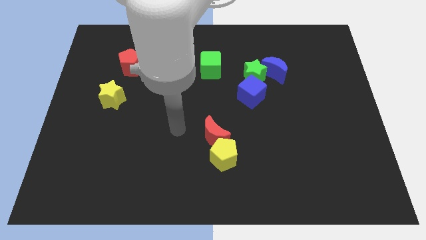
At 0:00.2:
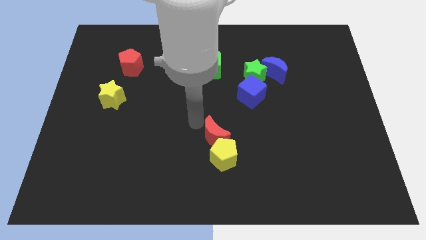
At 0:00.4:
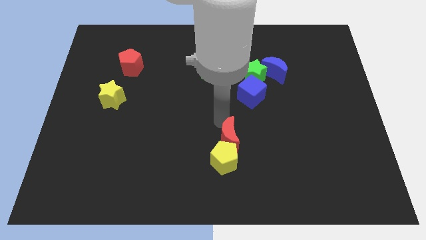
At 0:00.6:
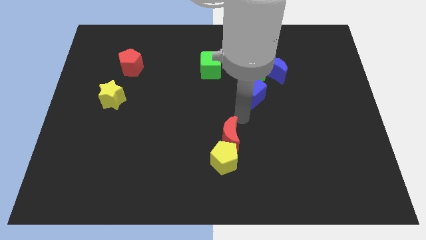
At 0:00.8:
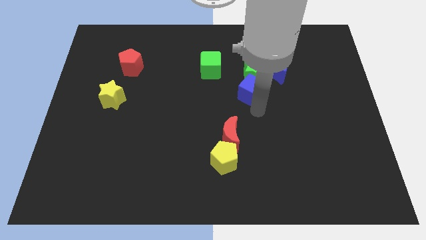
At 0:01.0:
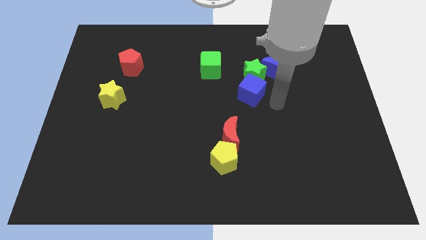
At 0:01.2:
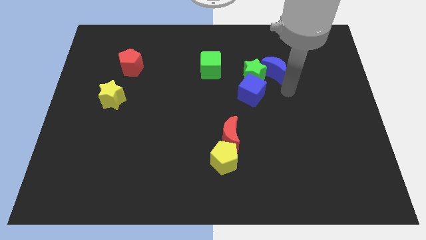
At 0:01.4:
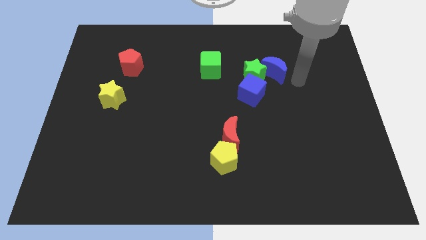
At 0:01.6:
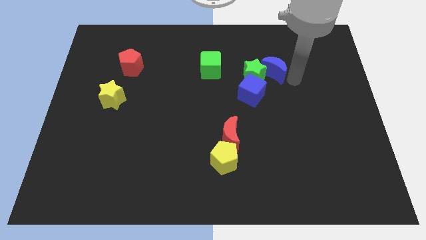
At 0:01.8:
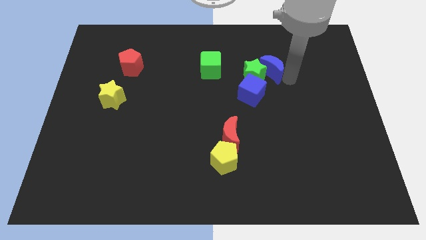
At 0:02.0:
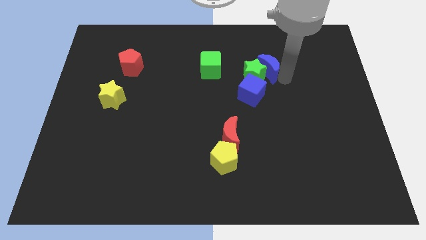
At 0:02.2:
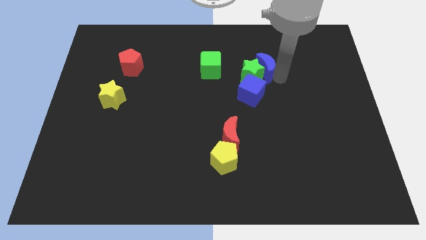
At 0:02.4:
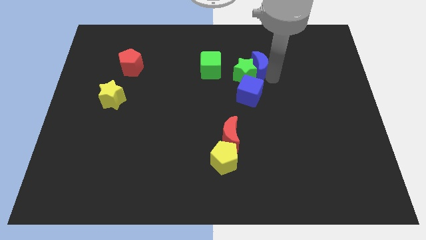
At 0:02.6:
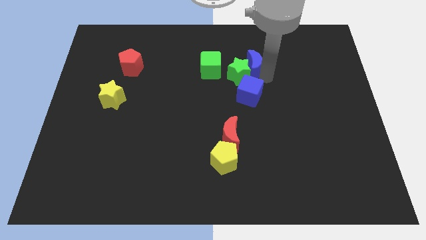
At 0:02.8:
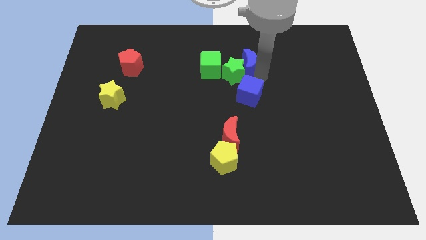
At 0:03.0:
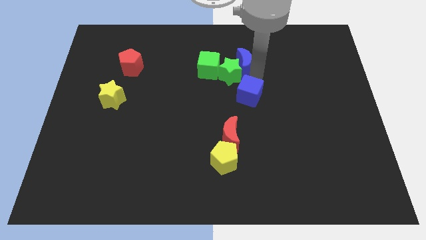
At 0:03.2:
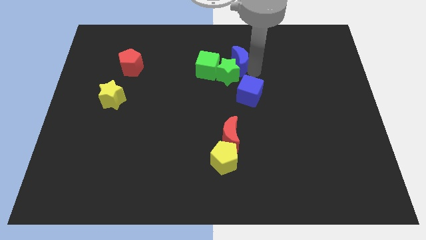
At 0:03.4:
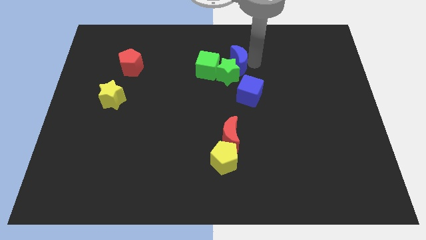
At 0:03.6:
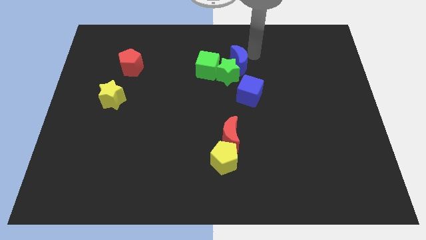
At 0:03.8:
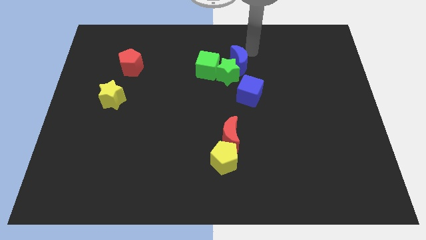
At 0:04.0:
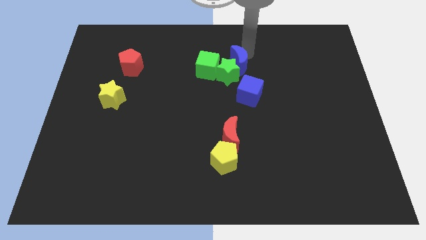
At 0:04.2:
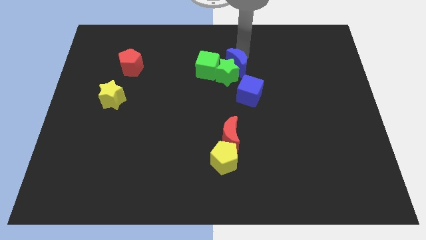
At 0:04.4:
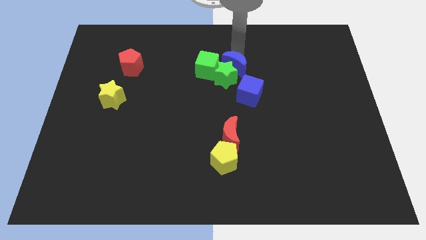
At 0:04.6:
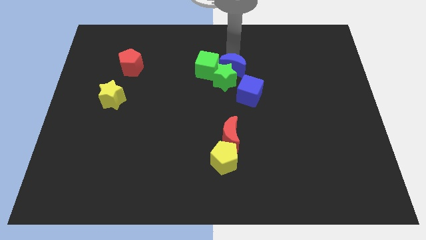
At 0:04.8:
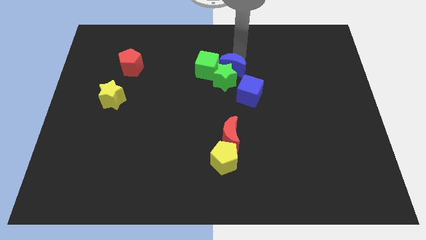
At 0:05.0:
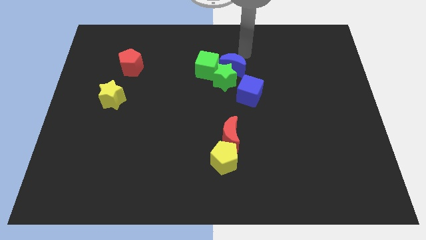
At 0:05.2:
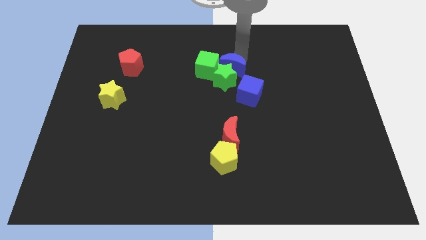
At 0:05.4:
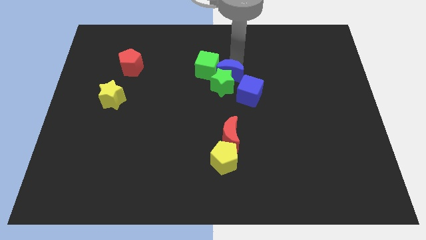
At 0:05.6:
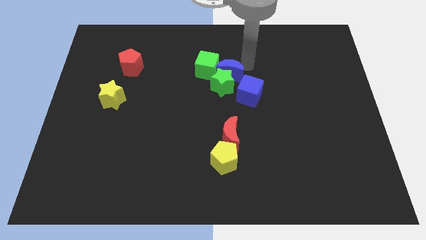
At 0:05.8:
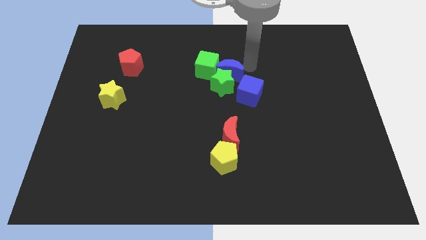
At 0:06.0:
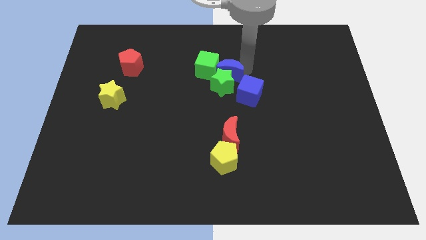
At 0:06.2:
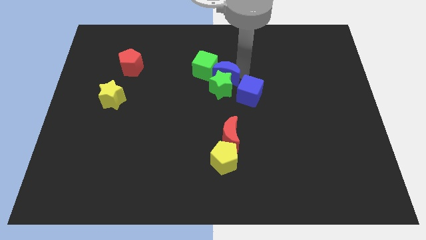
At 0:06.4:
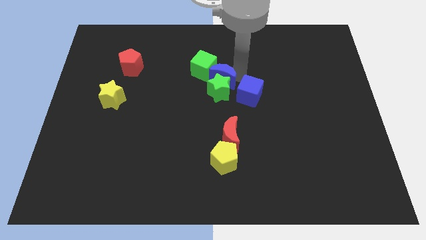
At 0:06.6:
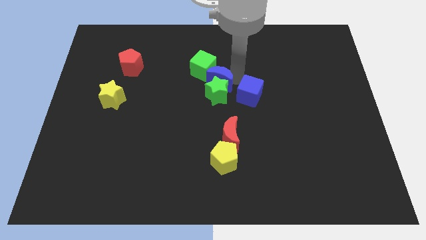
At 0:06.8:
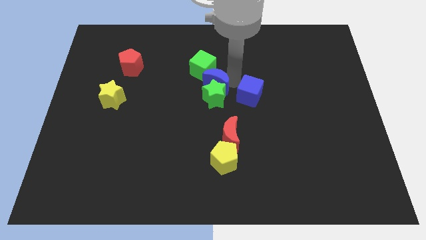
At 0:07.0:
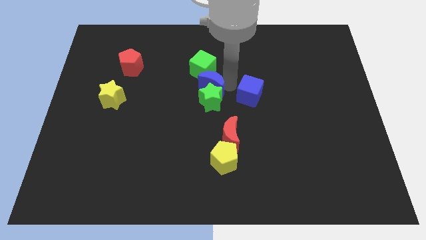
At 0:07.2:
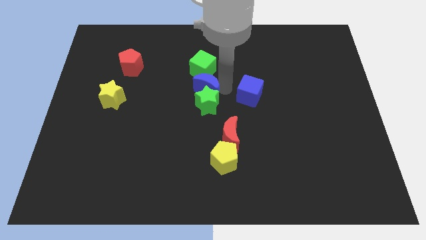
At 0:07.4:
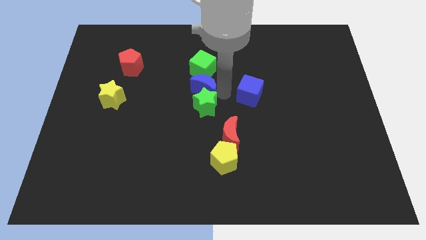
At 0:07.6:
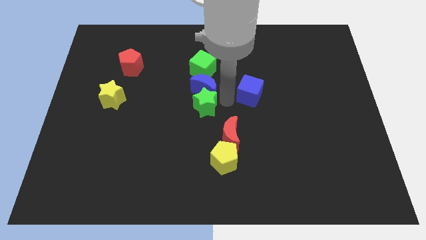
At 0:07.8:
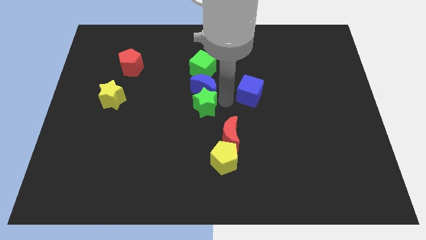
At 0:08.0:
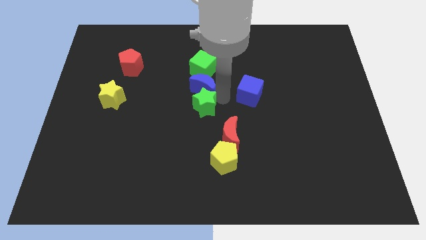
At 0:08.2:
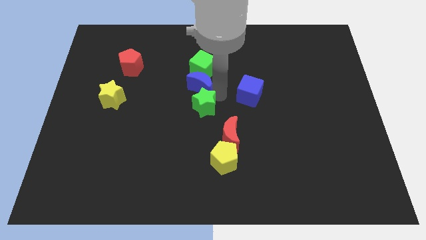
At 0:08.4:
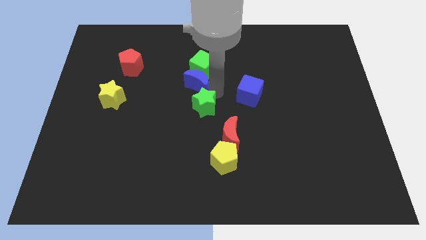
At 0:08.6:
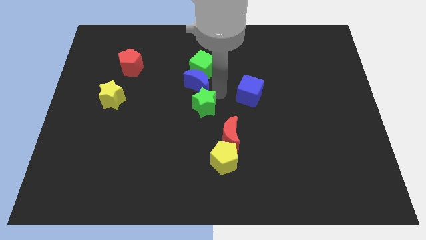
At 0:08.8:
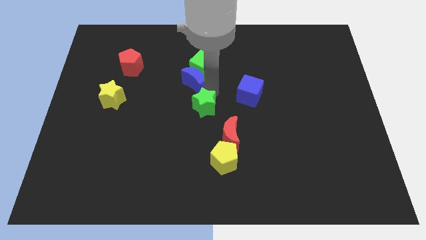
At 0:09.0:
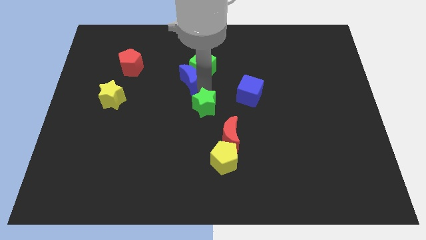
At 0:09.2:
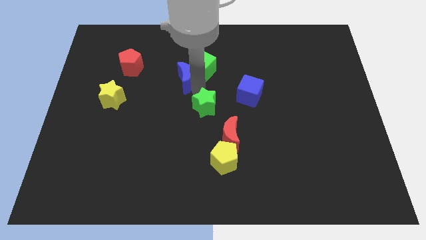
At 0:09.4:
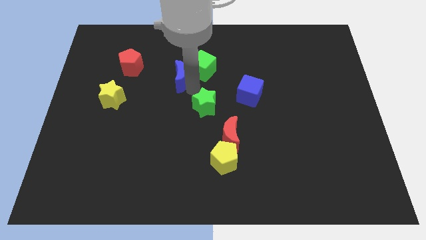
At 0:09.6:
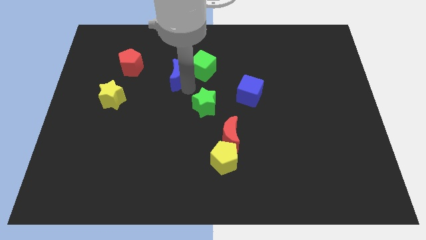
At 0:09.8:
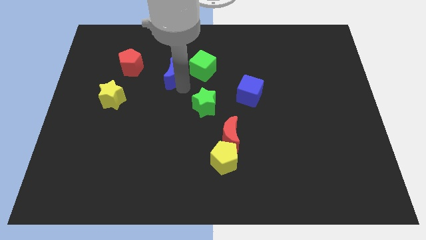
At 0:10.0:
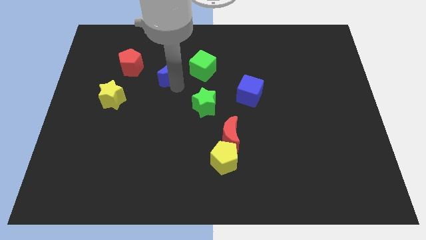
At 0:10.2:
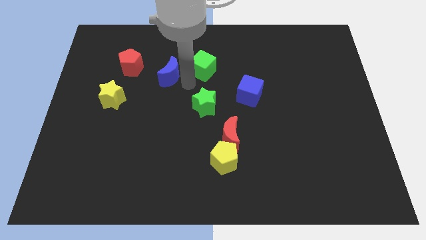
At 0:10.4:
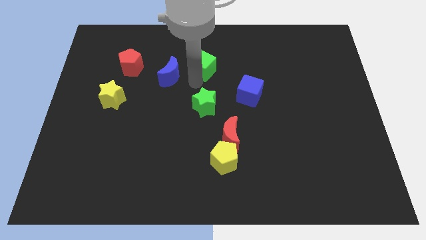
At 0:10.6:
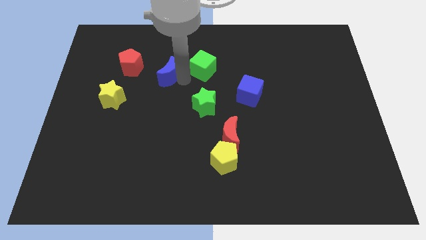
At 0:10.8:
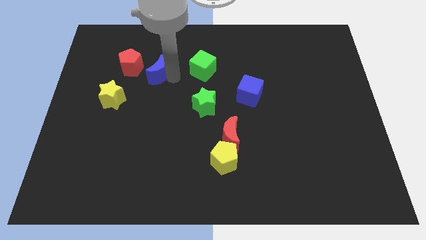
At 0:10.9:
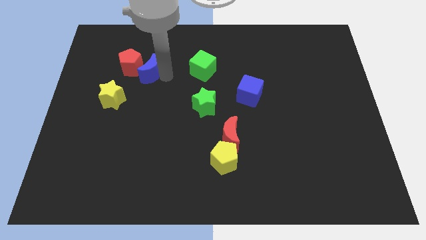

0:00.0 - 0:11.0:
put the blue moon next to the red pentagon

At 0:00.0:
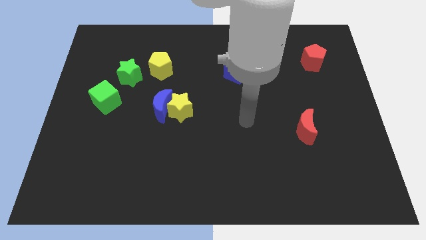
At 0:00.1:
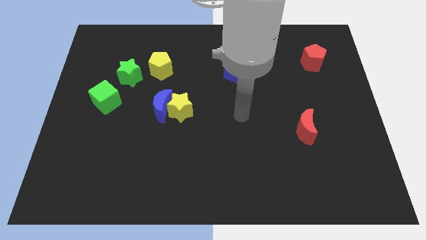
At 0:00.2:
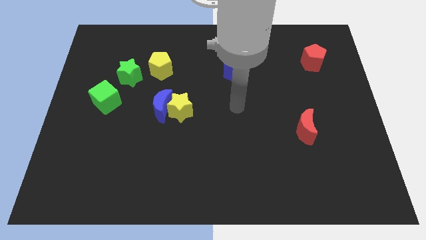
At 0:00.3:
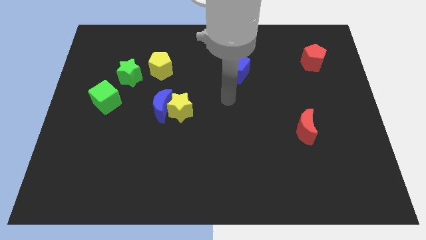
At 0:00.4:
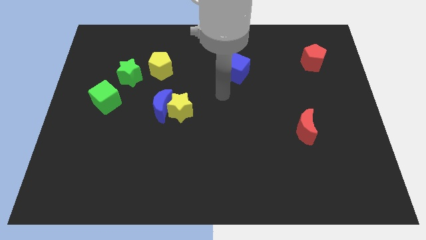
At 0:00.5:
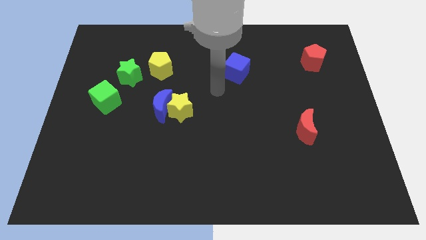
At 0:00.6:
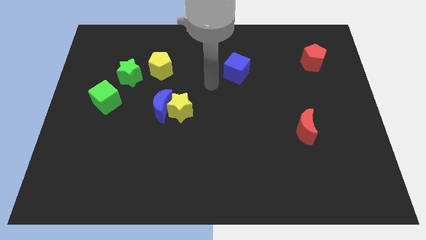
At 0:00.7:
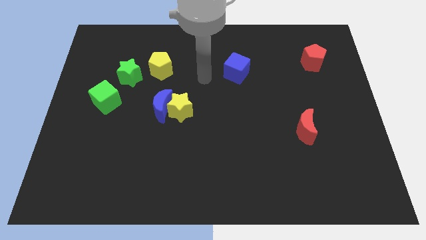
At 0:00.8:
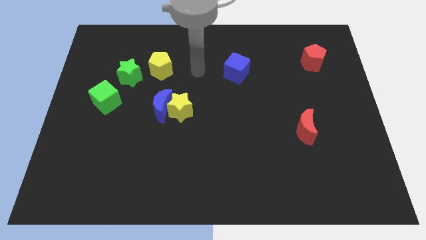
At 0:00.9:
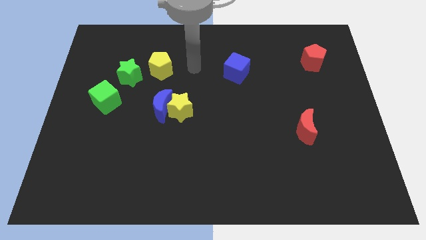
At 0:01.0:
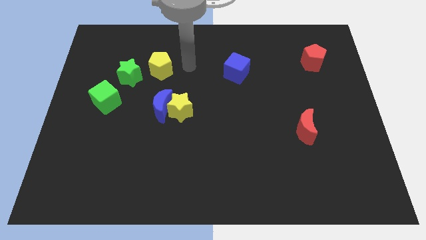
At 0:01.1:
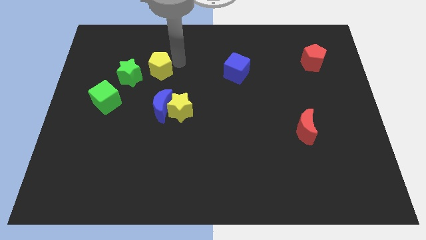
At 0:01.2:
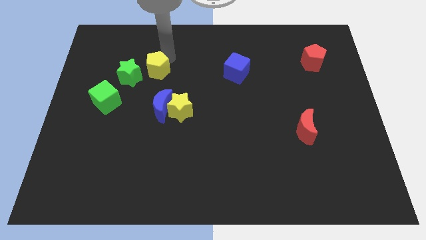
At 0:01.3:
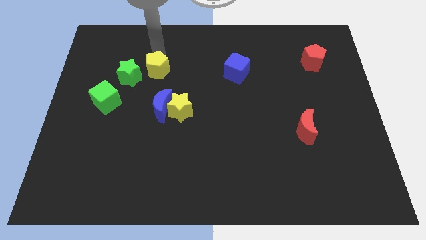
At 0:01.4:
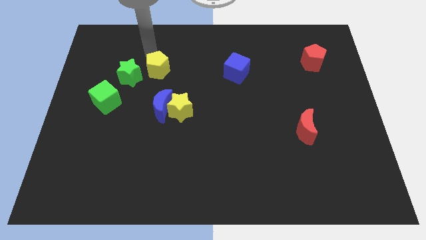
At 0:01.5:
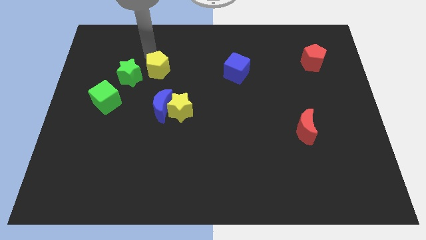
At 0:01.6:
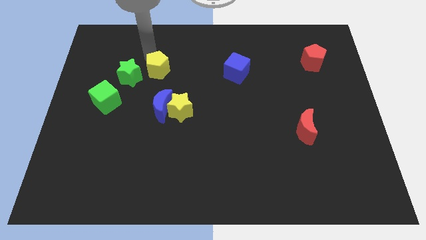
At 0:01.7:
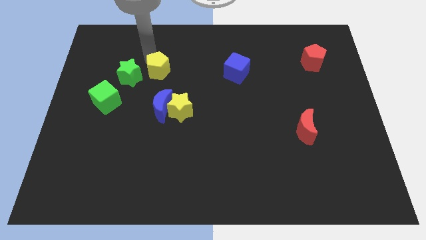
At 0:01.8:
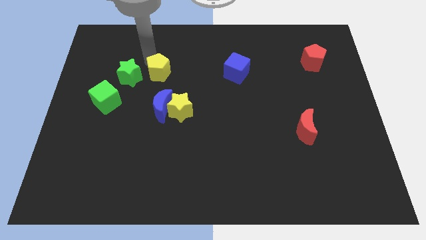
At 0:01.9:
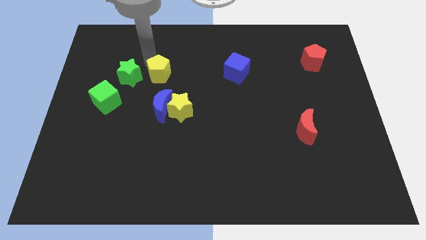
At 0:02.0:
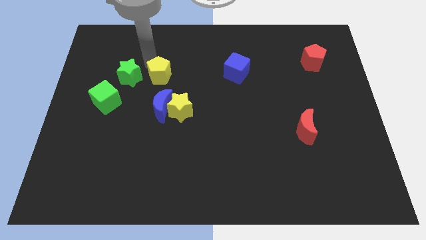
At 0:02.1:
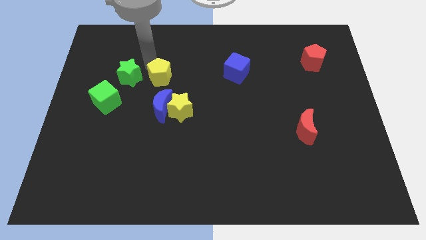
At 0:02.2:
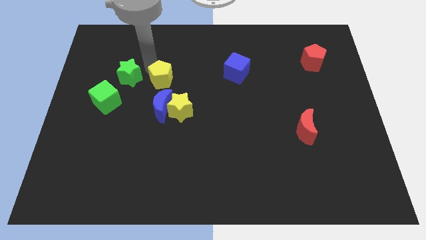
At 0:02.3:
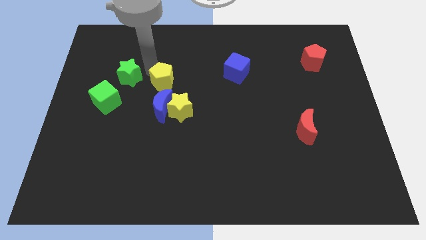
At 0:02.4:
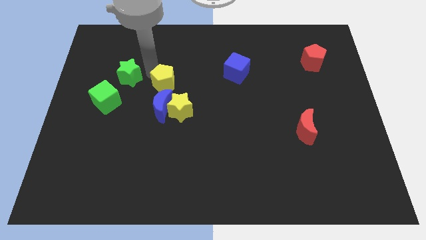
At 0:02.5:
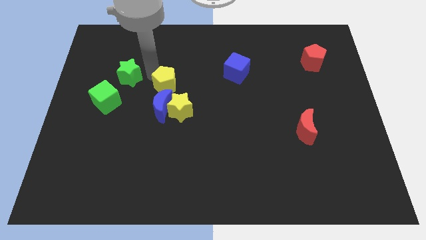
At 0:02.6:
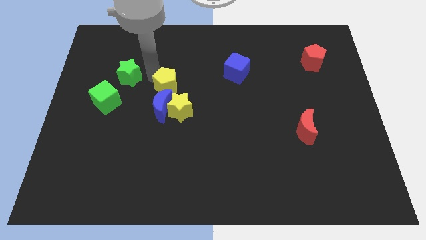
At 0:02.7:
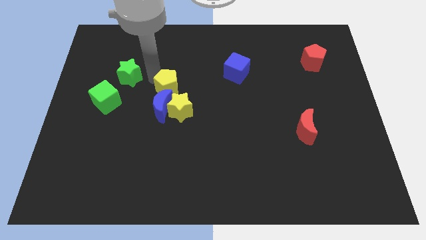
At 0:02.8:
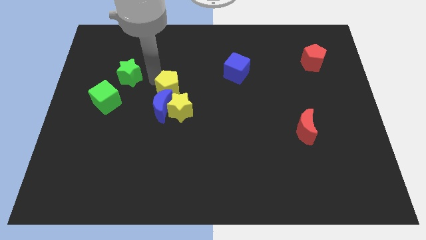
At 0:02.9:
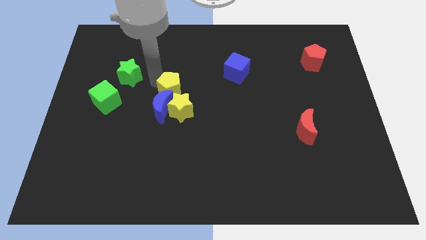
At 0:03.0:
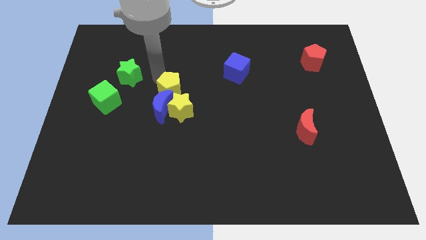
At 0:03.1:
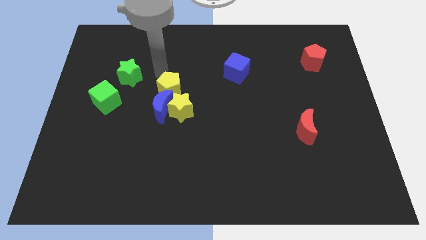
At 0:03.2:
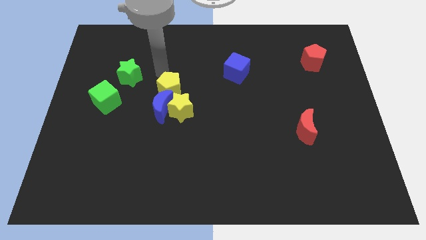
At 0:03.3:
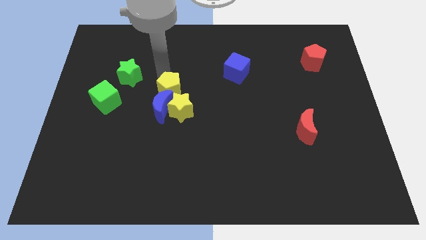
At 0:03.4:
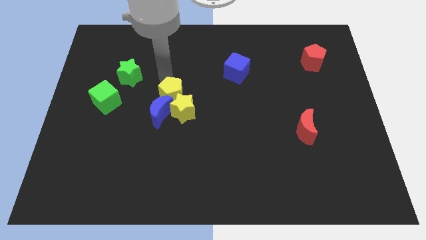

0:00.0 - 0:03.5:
push the yellow pentagon close to the yellow star
